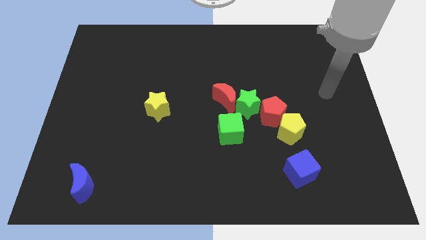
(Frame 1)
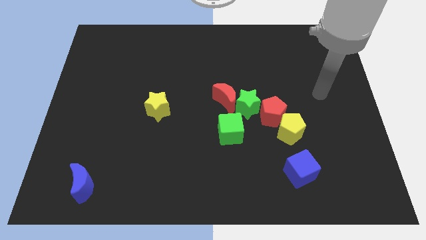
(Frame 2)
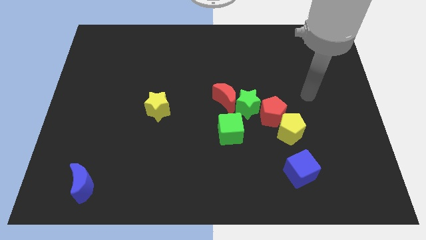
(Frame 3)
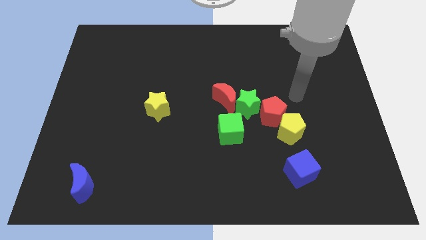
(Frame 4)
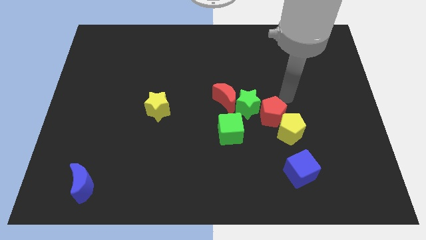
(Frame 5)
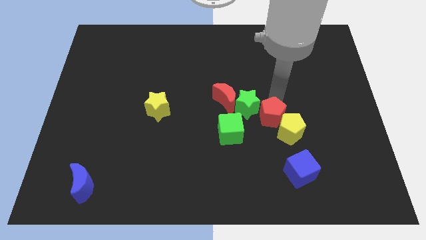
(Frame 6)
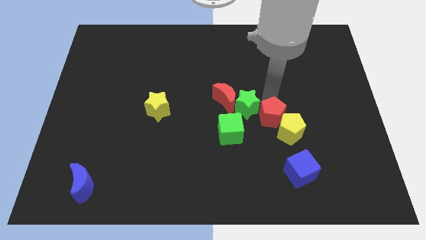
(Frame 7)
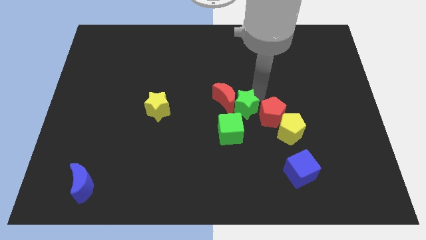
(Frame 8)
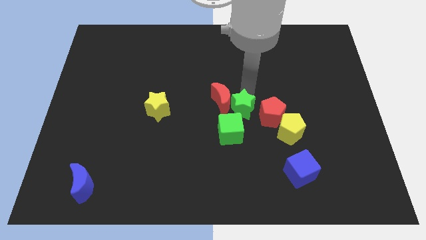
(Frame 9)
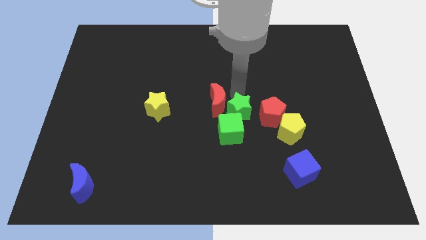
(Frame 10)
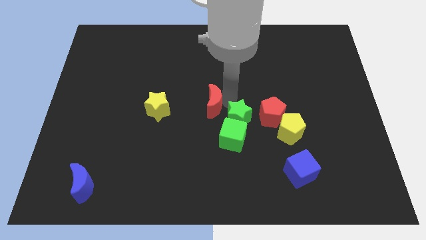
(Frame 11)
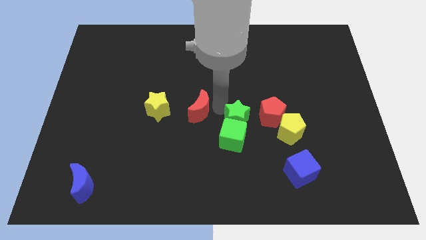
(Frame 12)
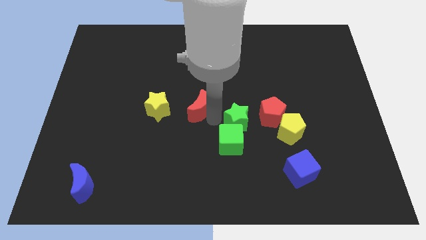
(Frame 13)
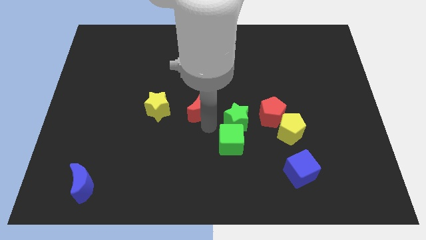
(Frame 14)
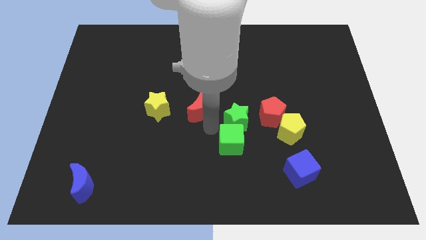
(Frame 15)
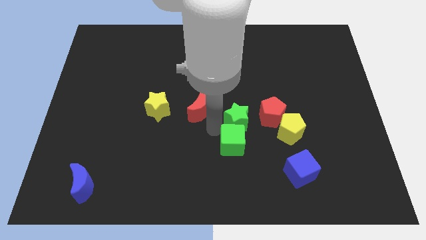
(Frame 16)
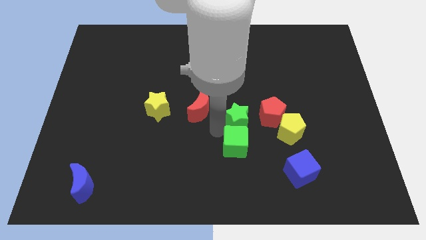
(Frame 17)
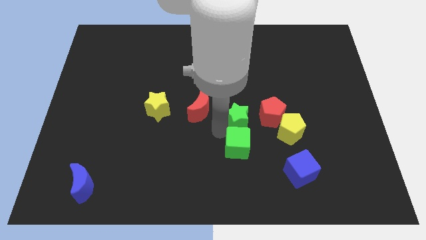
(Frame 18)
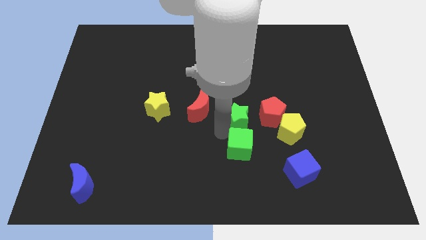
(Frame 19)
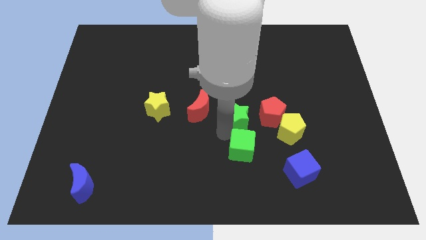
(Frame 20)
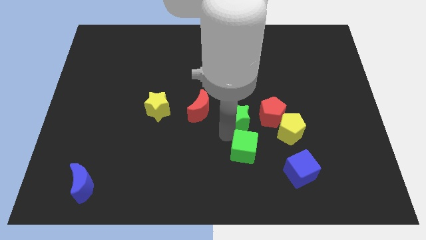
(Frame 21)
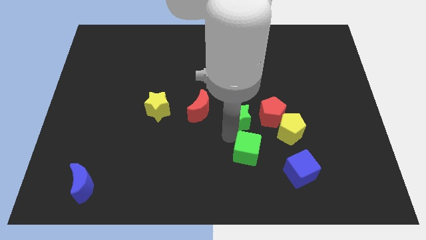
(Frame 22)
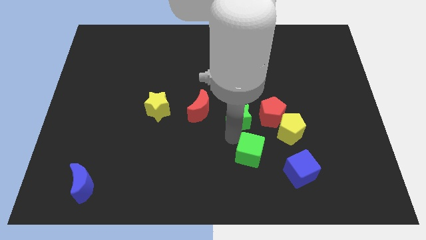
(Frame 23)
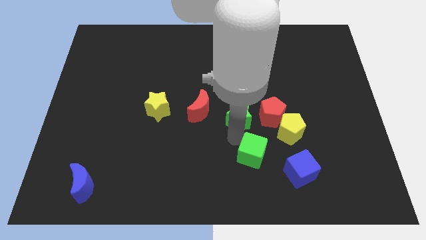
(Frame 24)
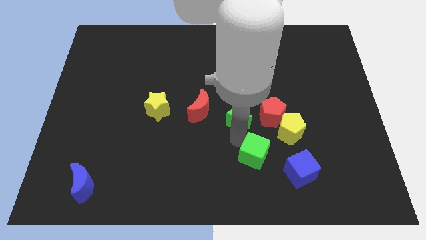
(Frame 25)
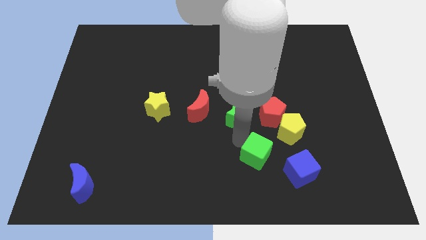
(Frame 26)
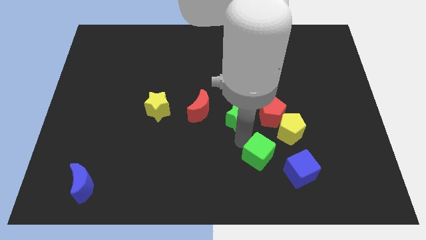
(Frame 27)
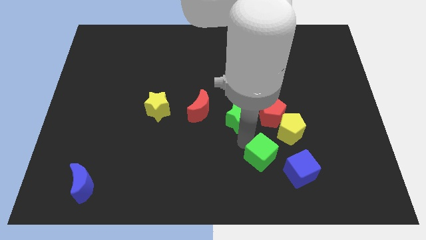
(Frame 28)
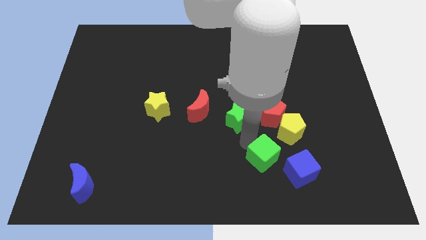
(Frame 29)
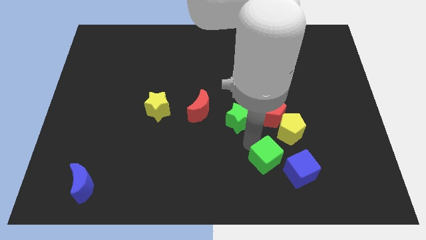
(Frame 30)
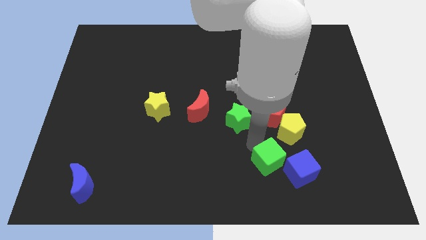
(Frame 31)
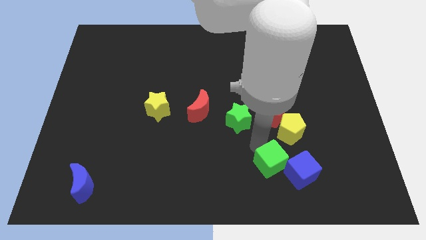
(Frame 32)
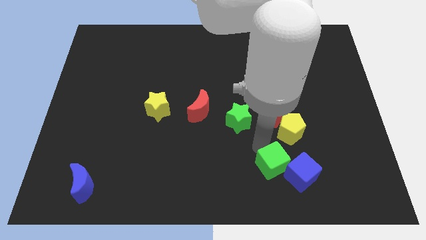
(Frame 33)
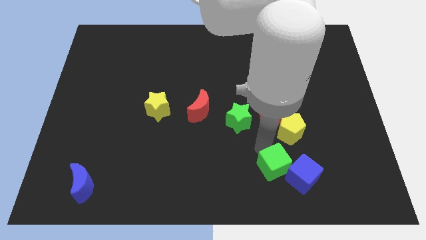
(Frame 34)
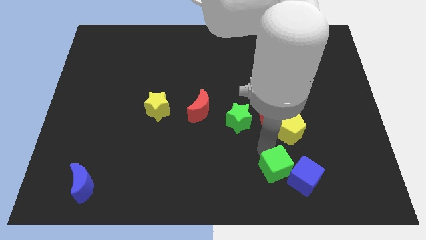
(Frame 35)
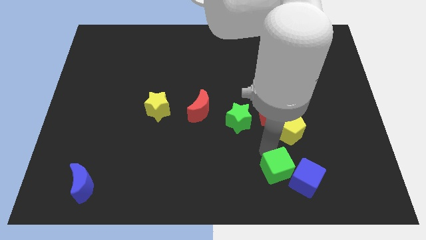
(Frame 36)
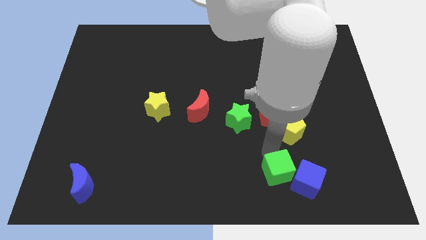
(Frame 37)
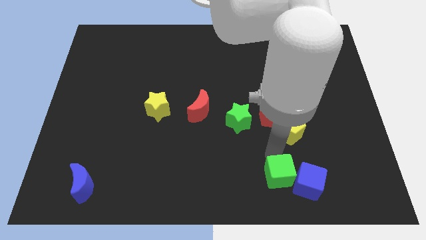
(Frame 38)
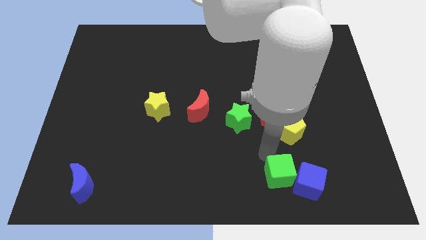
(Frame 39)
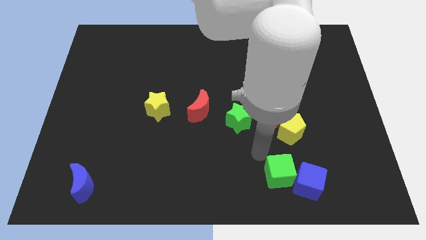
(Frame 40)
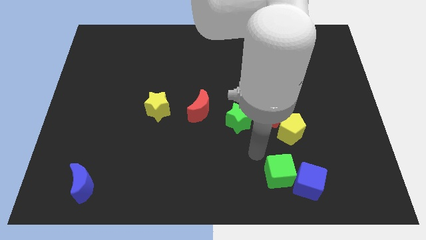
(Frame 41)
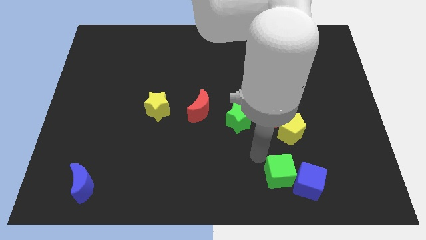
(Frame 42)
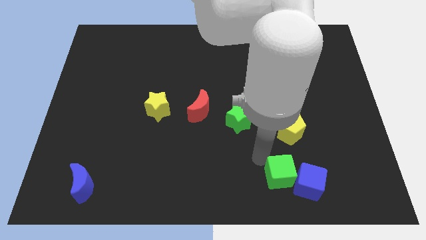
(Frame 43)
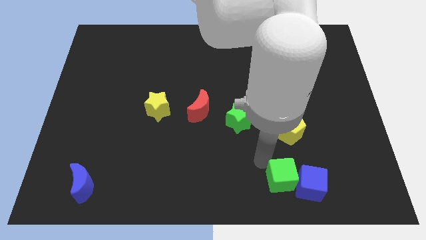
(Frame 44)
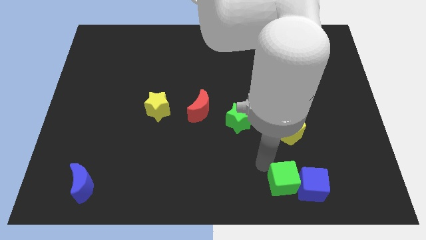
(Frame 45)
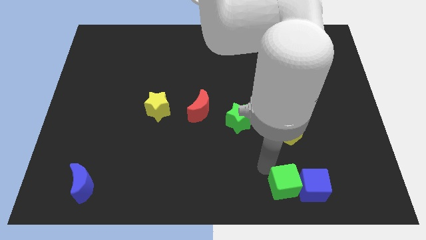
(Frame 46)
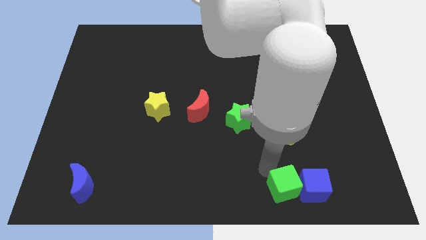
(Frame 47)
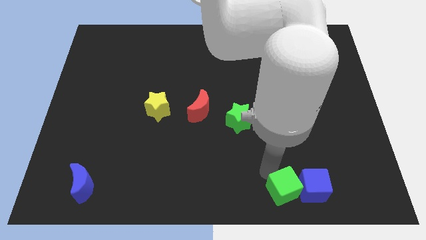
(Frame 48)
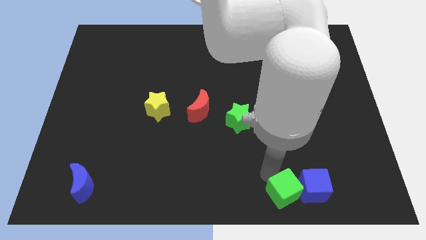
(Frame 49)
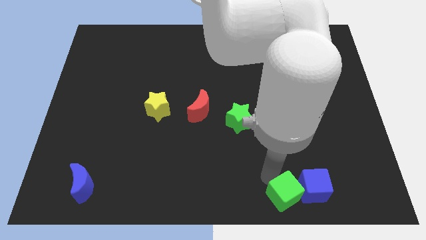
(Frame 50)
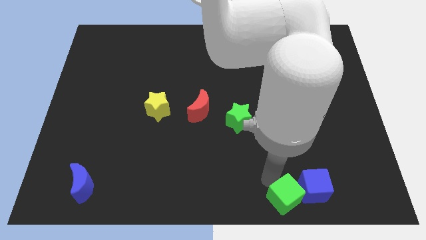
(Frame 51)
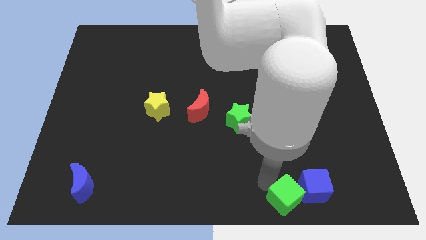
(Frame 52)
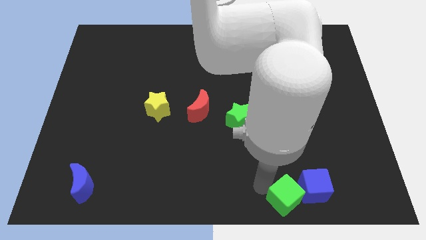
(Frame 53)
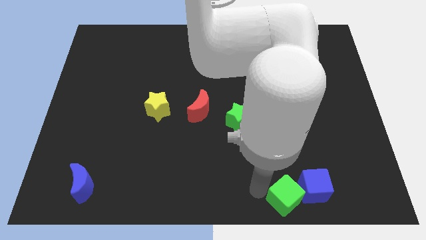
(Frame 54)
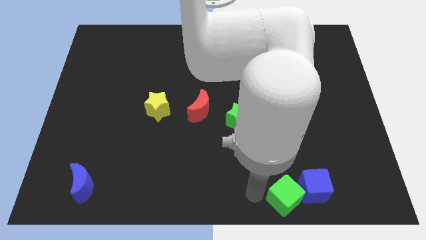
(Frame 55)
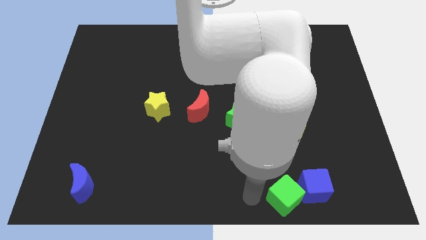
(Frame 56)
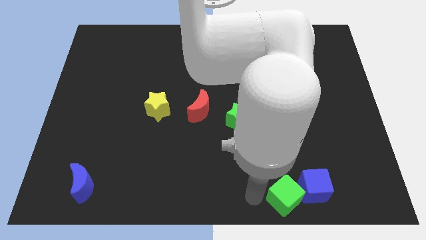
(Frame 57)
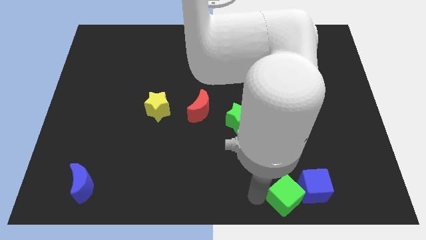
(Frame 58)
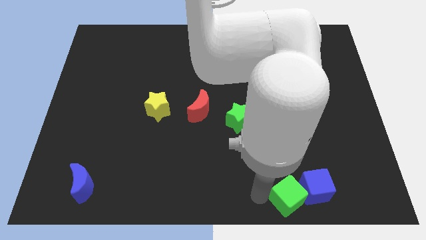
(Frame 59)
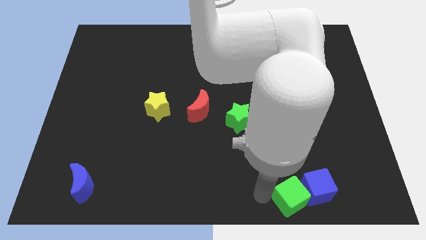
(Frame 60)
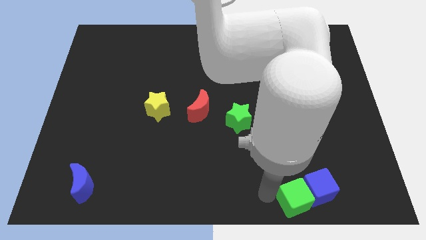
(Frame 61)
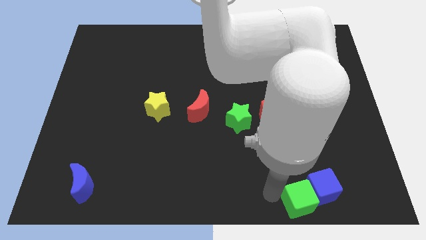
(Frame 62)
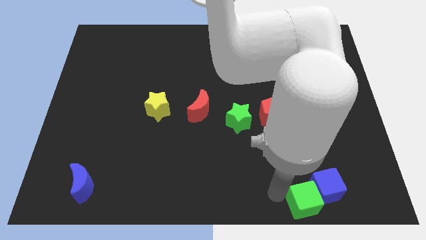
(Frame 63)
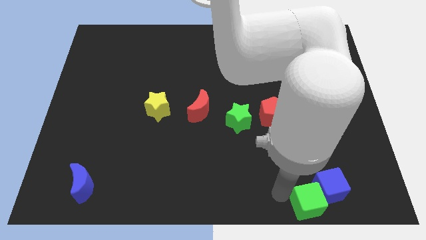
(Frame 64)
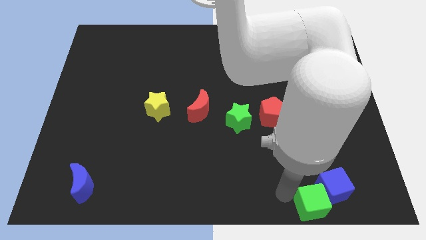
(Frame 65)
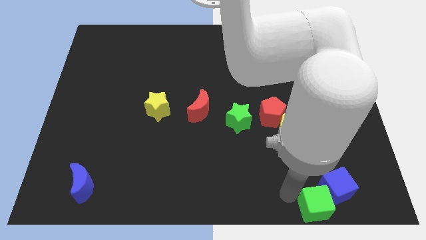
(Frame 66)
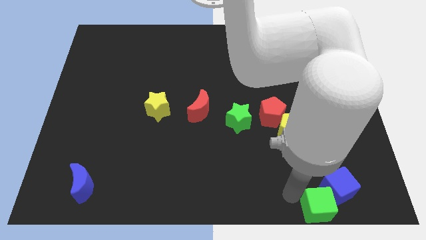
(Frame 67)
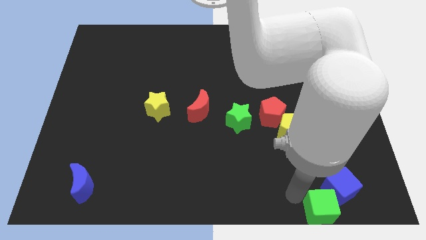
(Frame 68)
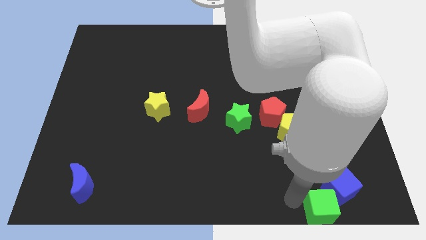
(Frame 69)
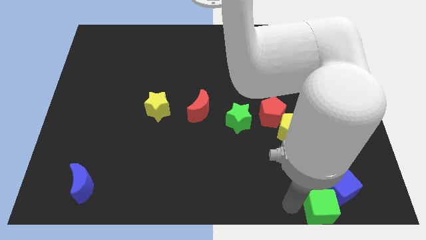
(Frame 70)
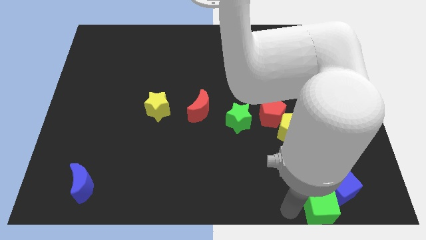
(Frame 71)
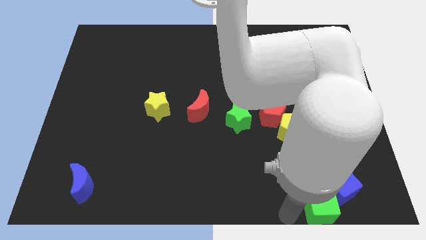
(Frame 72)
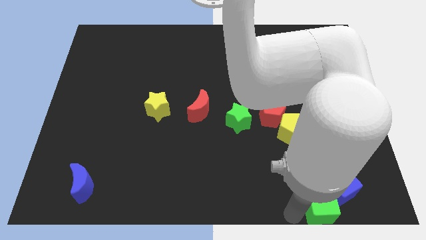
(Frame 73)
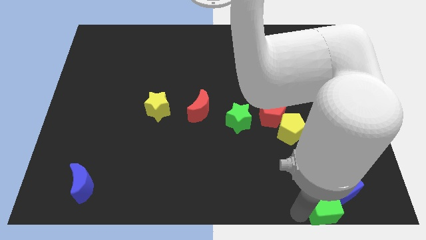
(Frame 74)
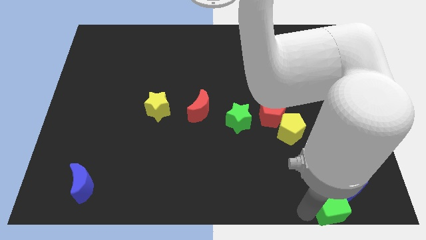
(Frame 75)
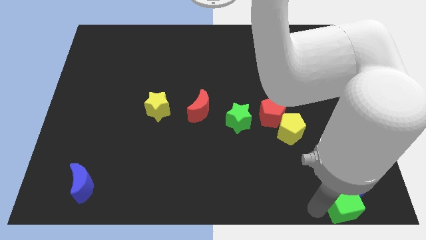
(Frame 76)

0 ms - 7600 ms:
slide the green cube to the lower right corner
